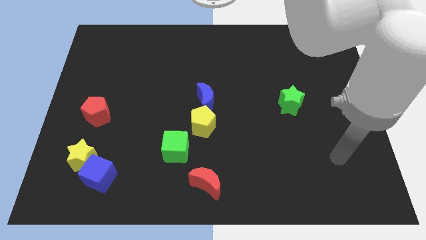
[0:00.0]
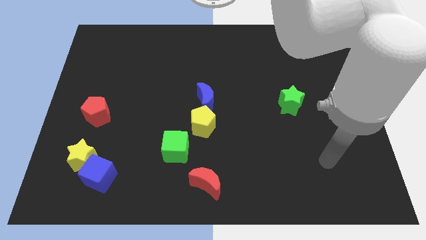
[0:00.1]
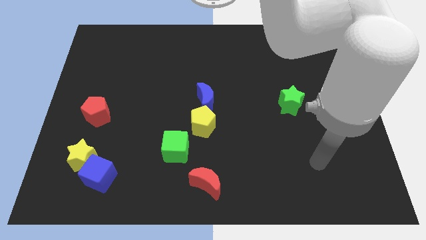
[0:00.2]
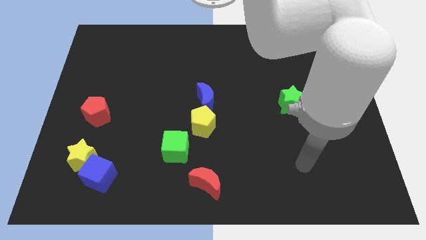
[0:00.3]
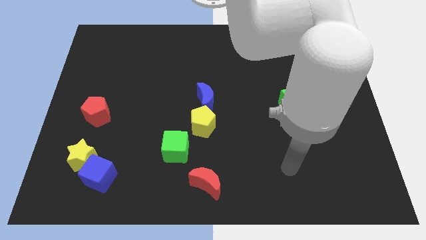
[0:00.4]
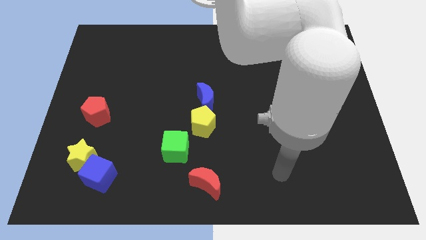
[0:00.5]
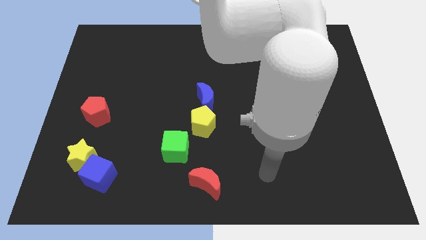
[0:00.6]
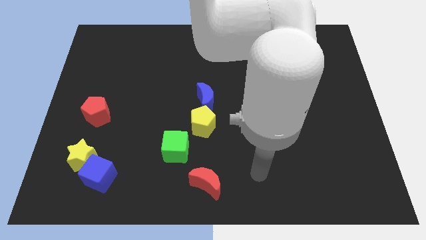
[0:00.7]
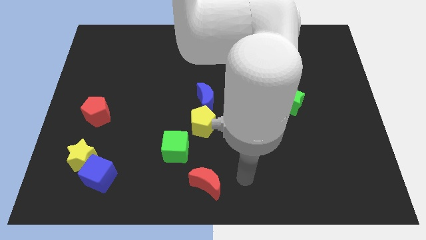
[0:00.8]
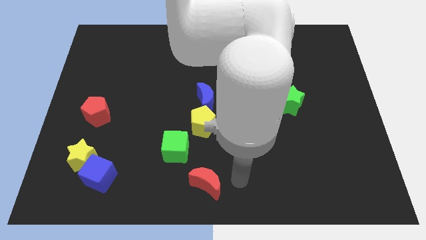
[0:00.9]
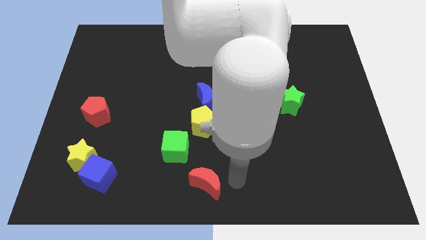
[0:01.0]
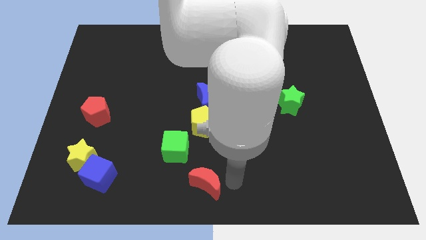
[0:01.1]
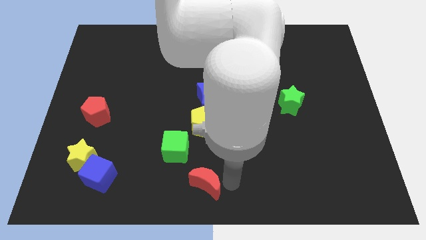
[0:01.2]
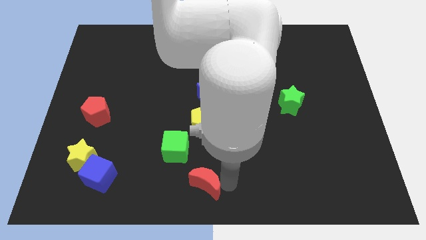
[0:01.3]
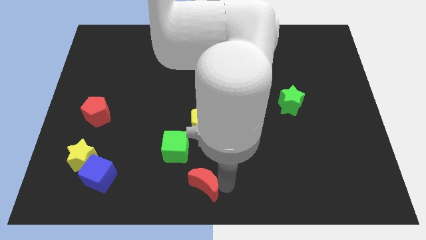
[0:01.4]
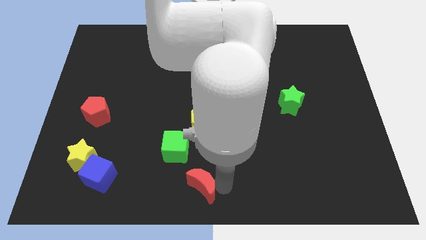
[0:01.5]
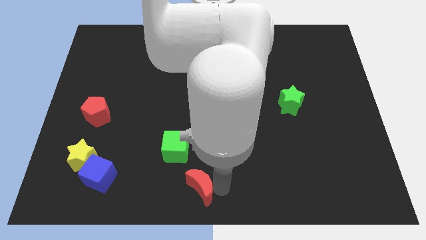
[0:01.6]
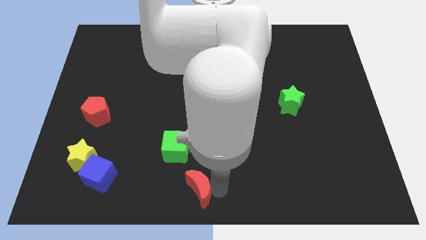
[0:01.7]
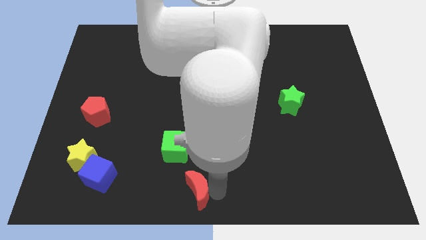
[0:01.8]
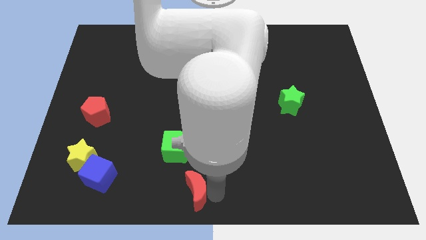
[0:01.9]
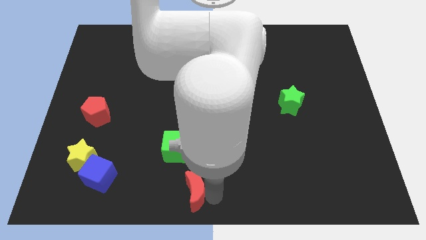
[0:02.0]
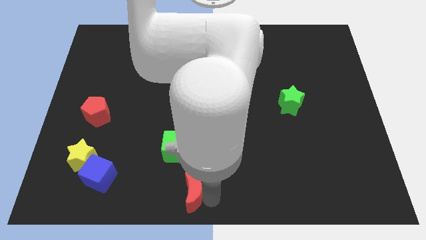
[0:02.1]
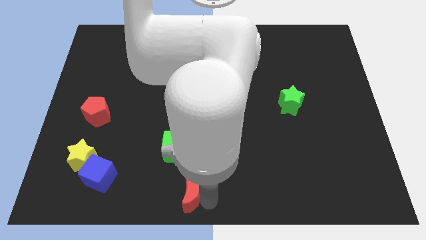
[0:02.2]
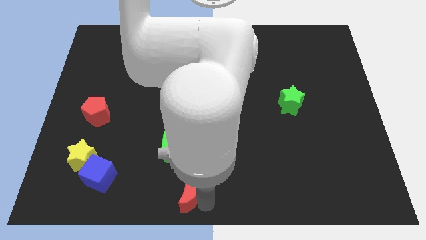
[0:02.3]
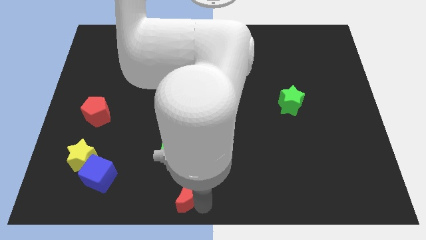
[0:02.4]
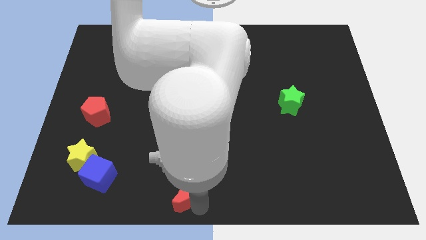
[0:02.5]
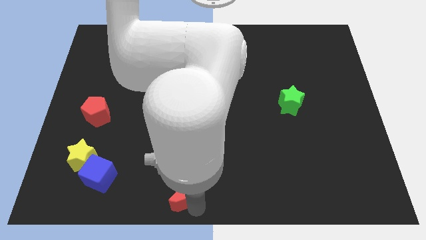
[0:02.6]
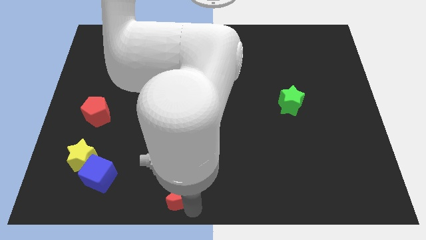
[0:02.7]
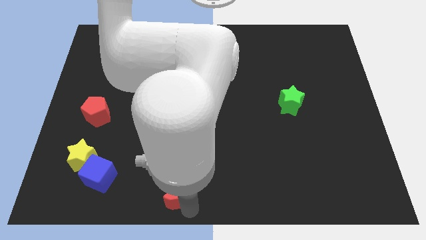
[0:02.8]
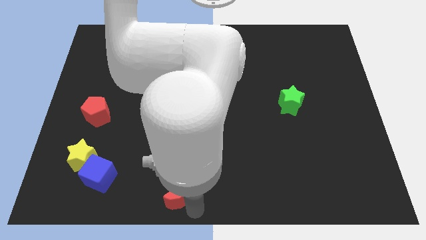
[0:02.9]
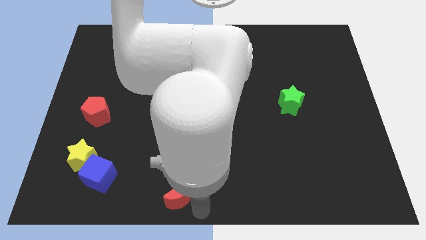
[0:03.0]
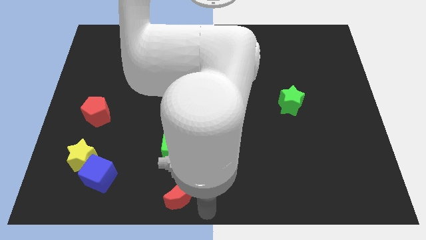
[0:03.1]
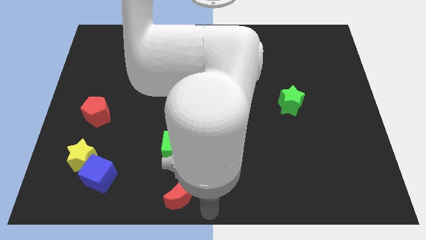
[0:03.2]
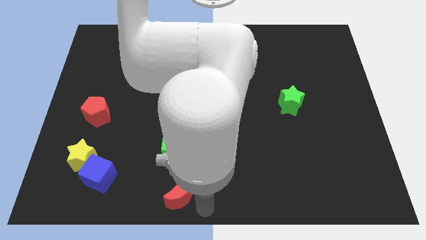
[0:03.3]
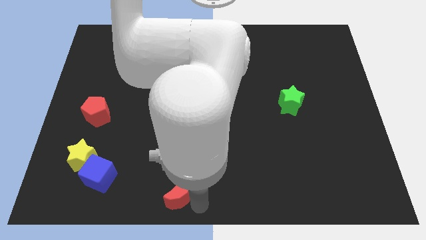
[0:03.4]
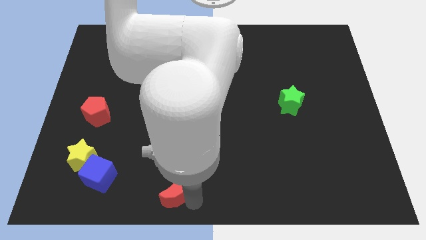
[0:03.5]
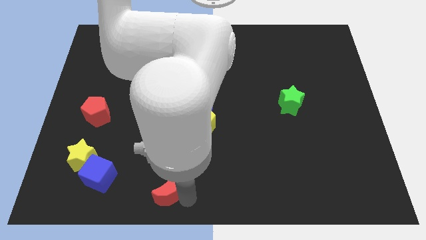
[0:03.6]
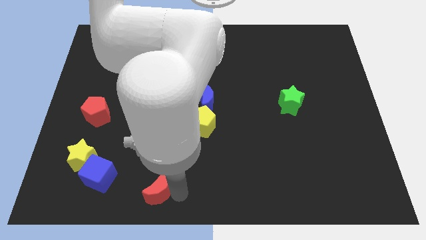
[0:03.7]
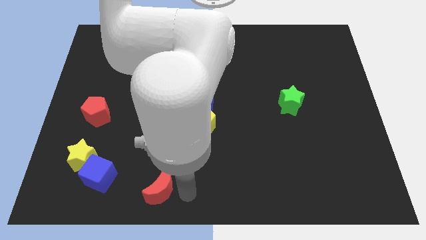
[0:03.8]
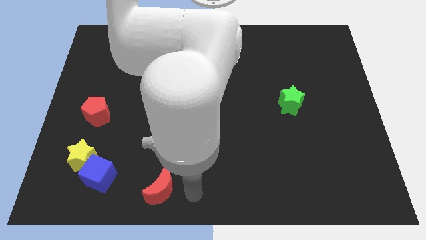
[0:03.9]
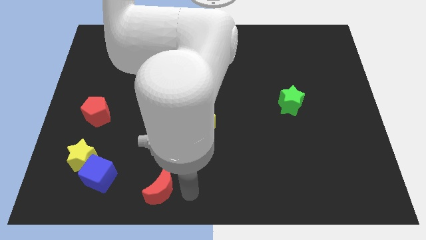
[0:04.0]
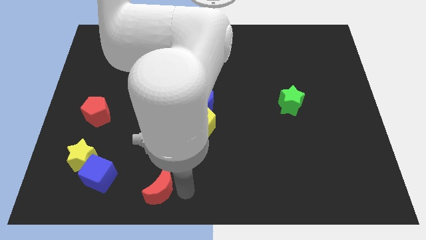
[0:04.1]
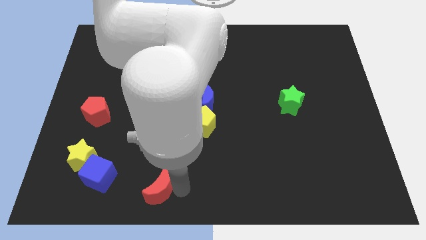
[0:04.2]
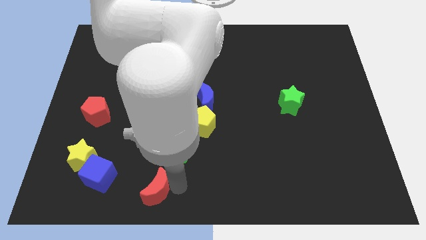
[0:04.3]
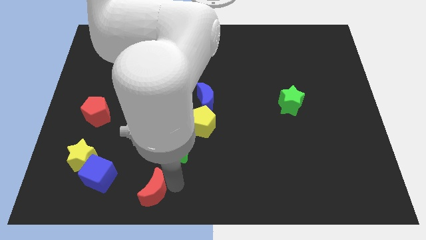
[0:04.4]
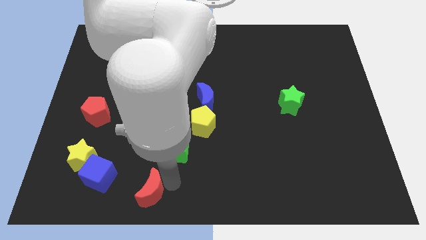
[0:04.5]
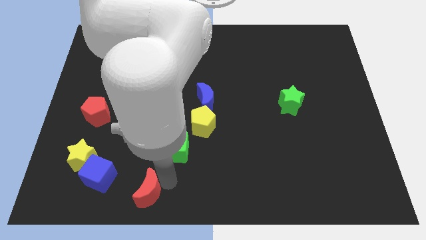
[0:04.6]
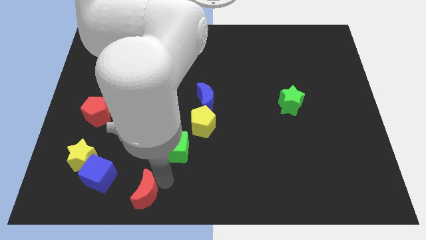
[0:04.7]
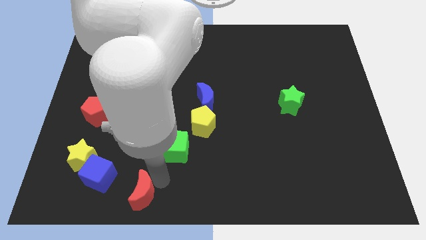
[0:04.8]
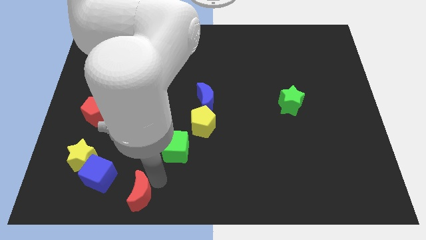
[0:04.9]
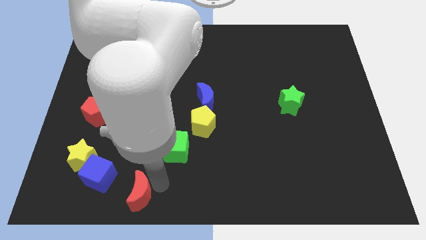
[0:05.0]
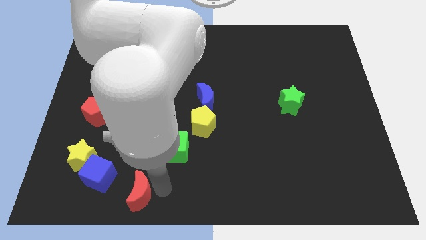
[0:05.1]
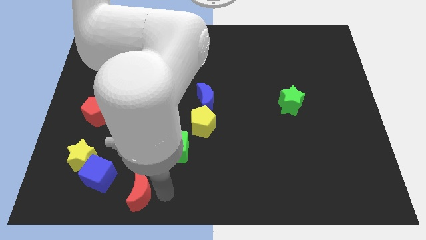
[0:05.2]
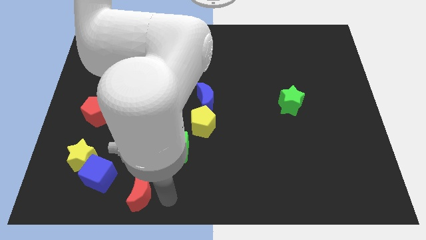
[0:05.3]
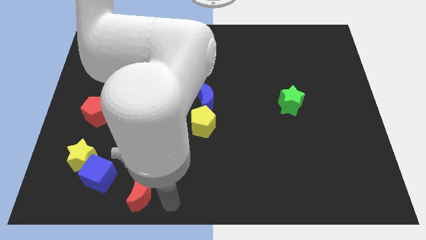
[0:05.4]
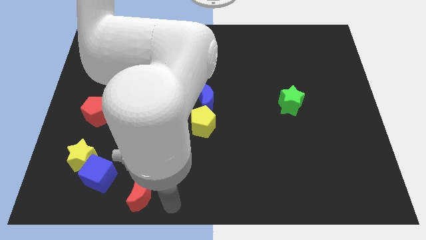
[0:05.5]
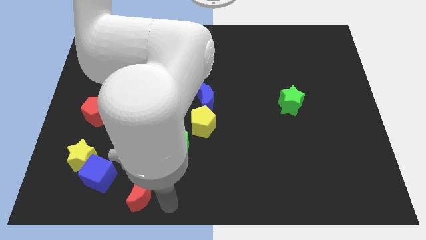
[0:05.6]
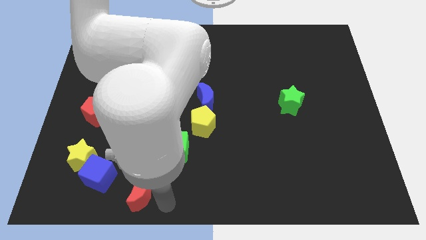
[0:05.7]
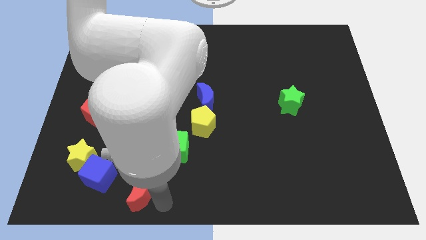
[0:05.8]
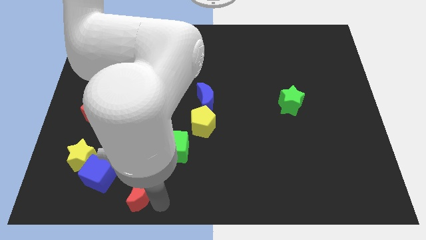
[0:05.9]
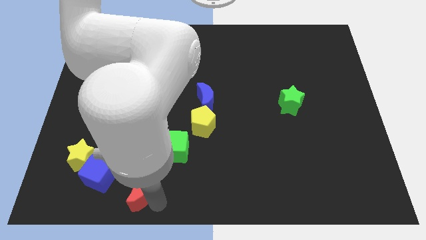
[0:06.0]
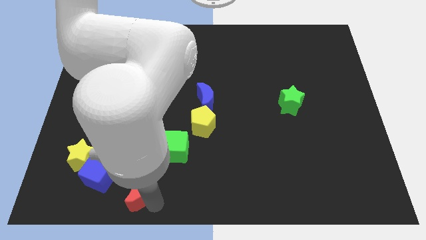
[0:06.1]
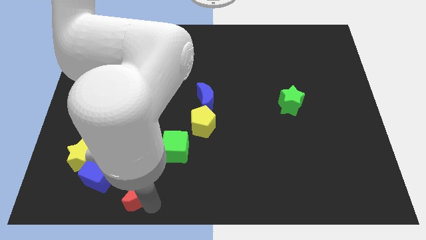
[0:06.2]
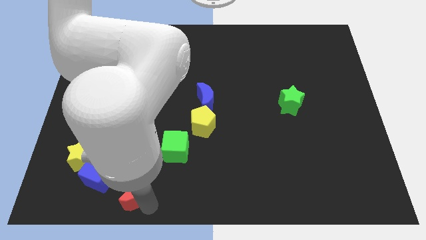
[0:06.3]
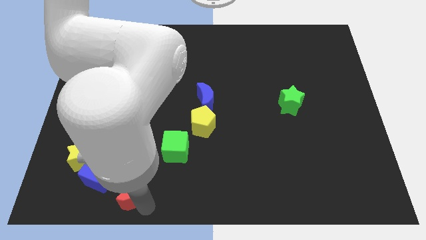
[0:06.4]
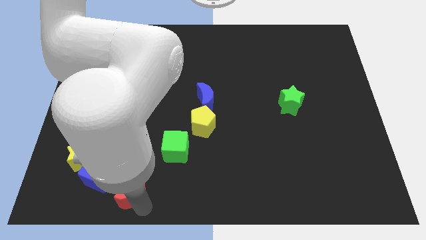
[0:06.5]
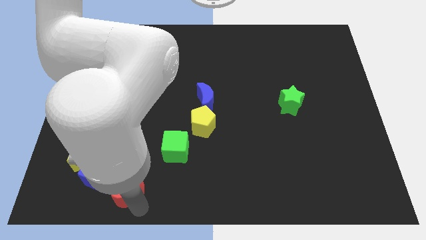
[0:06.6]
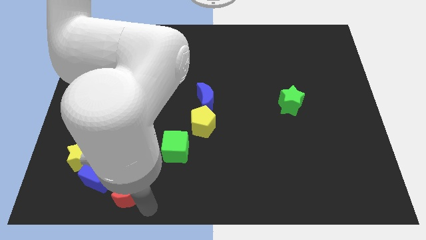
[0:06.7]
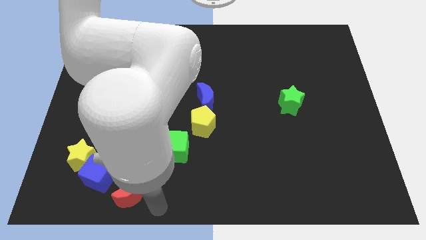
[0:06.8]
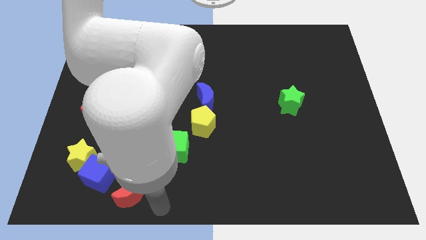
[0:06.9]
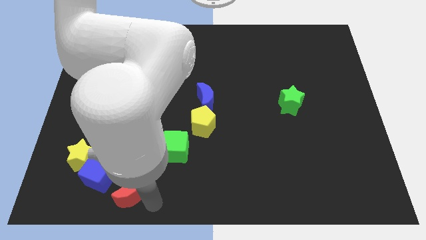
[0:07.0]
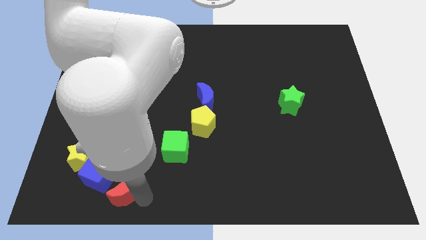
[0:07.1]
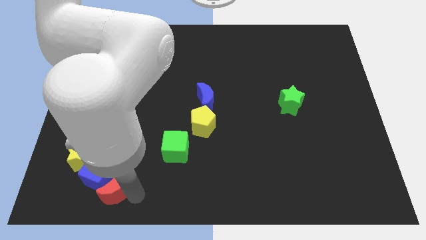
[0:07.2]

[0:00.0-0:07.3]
push the red moon next to the blue cube

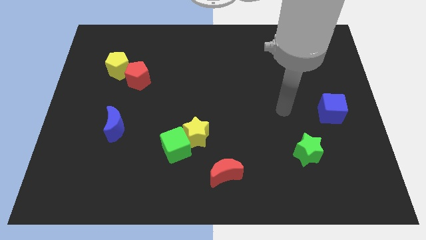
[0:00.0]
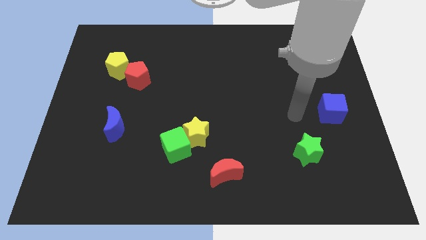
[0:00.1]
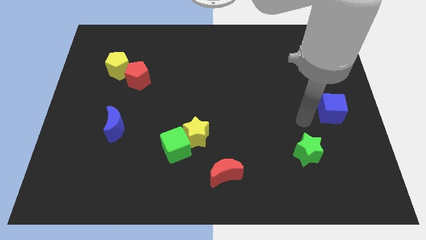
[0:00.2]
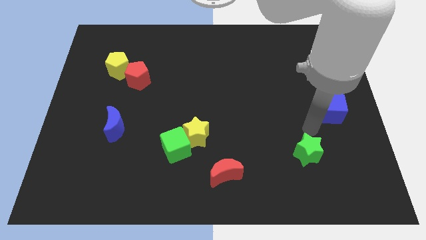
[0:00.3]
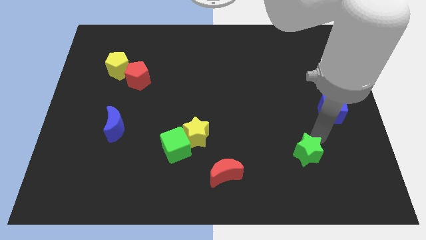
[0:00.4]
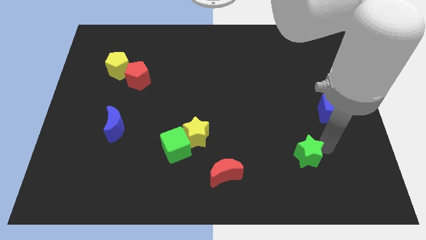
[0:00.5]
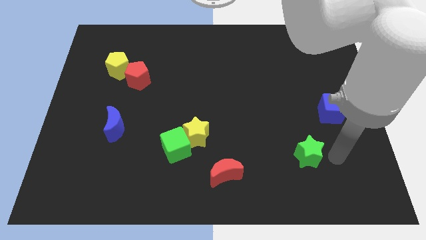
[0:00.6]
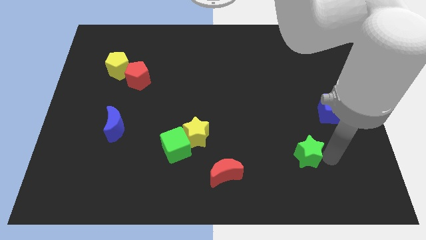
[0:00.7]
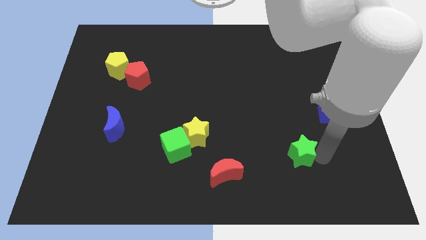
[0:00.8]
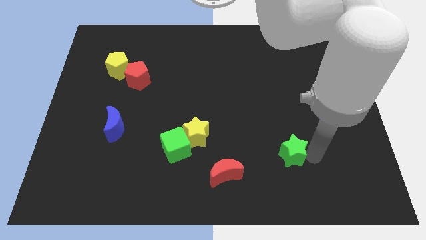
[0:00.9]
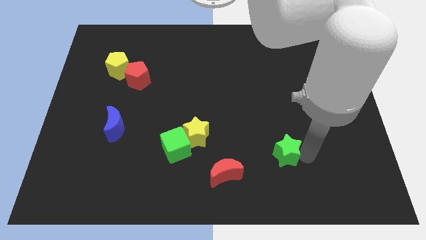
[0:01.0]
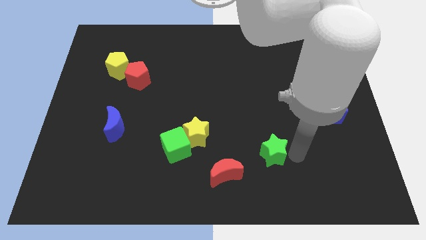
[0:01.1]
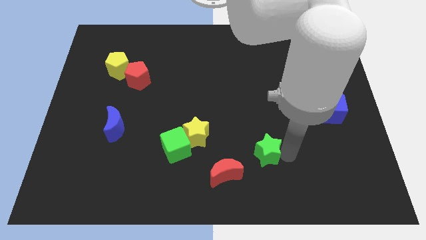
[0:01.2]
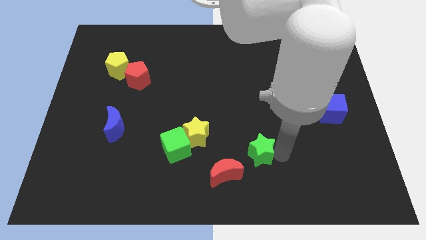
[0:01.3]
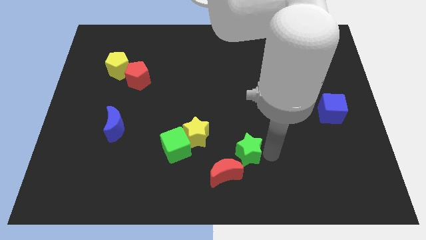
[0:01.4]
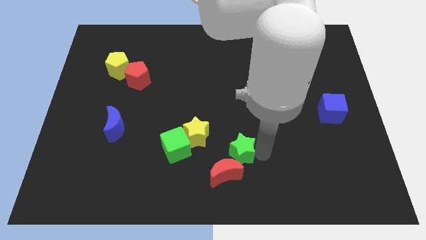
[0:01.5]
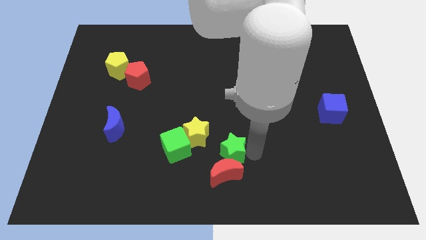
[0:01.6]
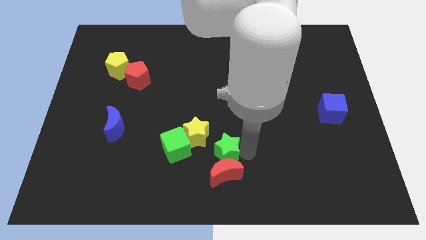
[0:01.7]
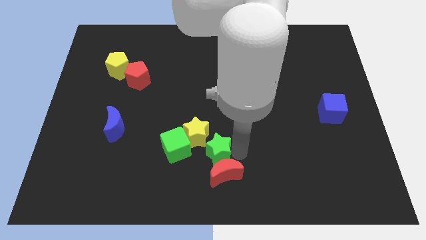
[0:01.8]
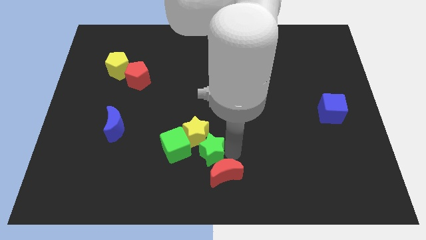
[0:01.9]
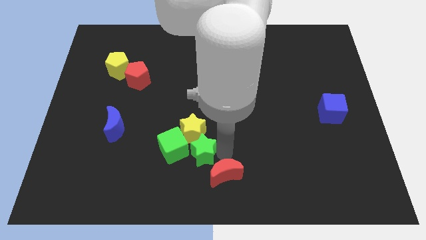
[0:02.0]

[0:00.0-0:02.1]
move the green star to the green cube
